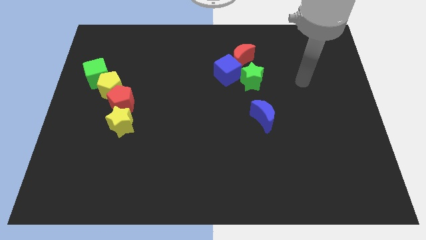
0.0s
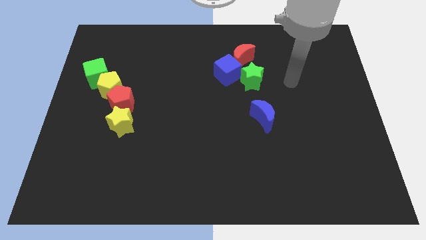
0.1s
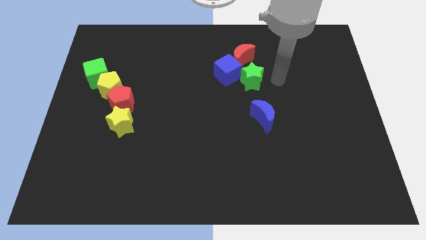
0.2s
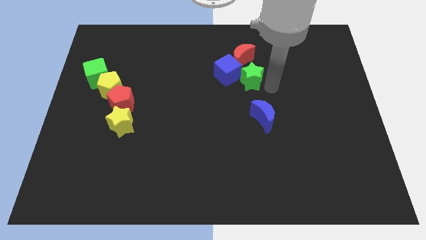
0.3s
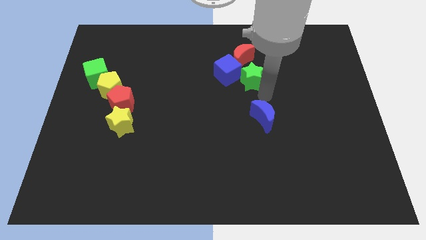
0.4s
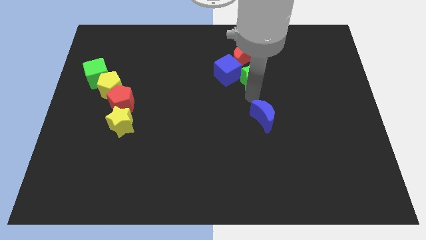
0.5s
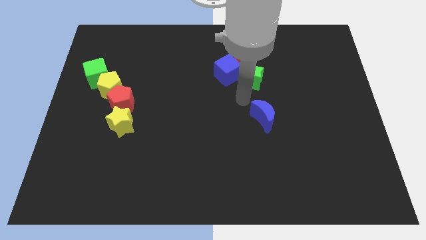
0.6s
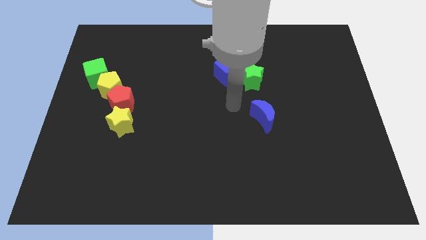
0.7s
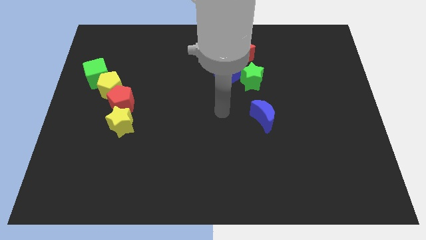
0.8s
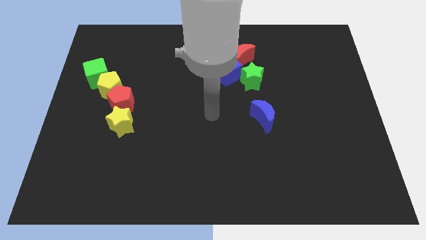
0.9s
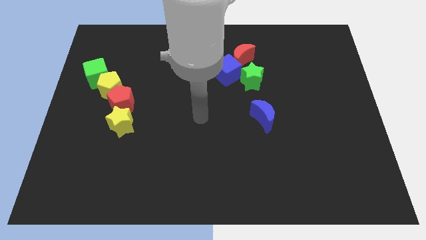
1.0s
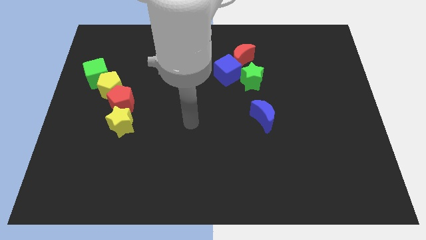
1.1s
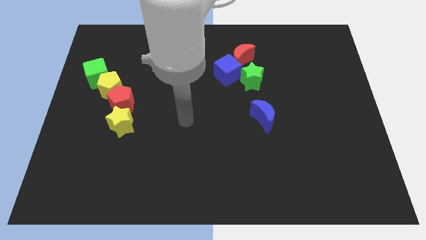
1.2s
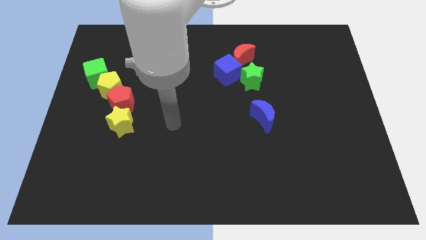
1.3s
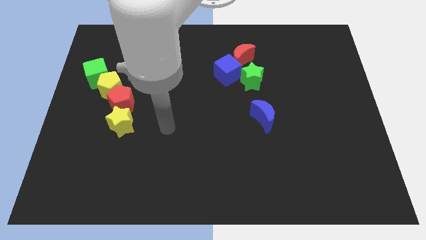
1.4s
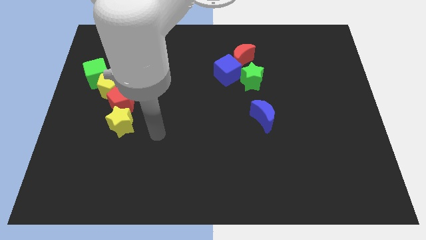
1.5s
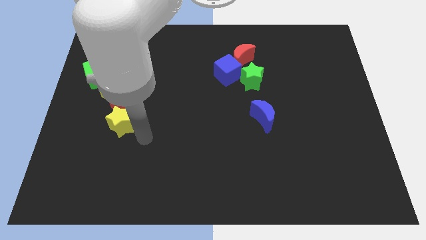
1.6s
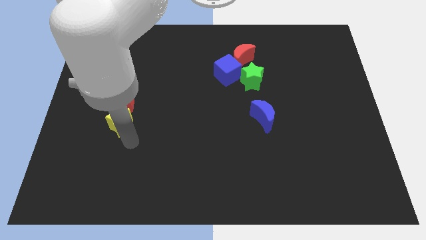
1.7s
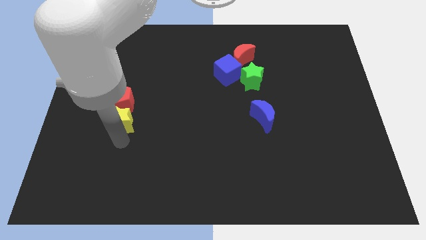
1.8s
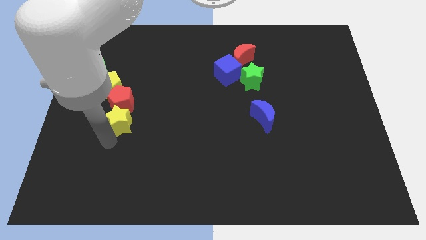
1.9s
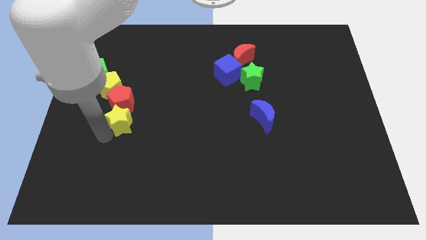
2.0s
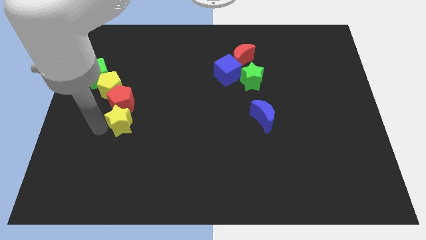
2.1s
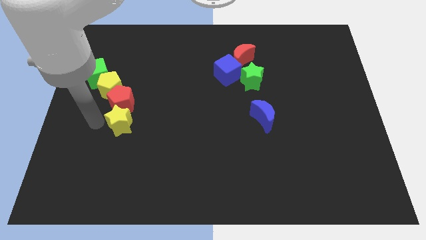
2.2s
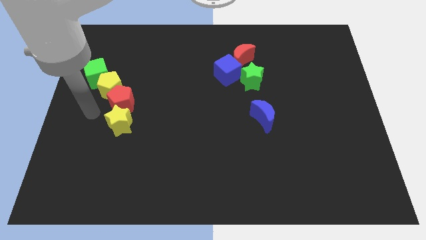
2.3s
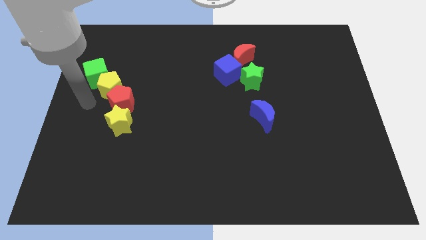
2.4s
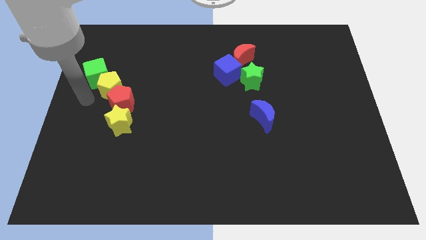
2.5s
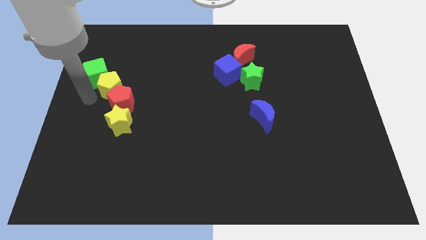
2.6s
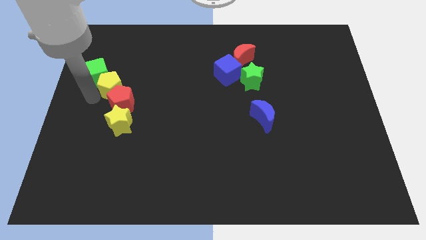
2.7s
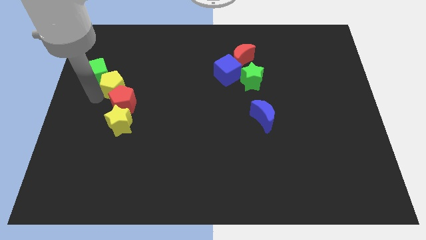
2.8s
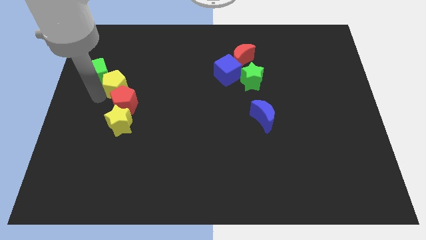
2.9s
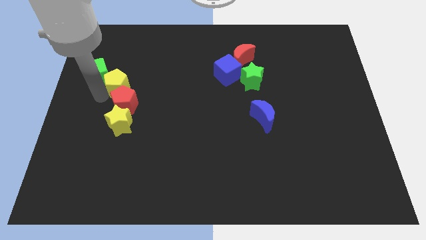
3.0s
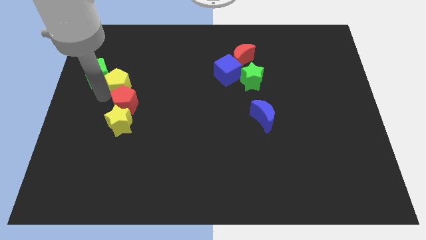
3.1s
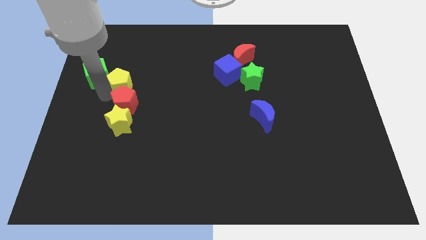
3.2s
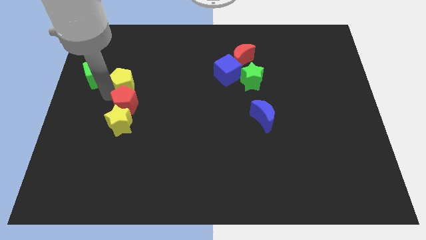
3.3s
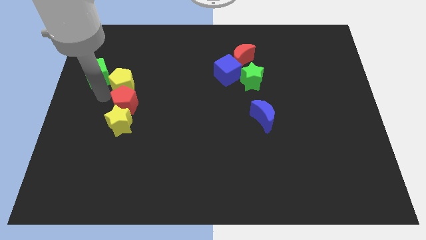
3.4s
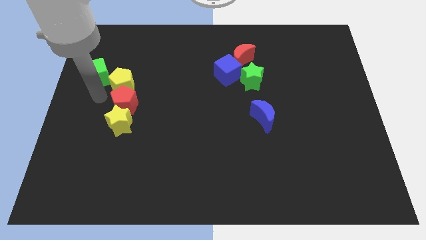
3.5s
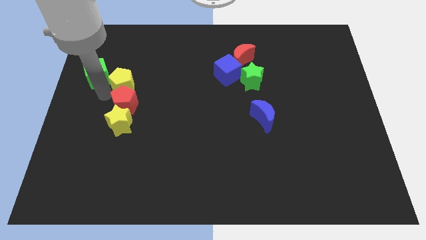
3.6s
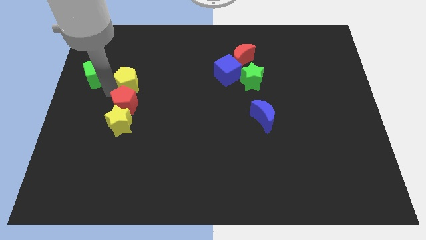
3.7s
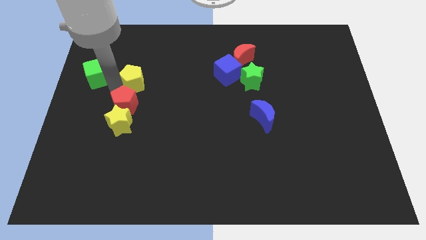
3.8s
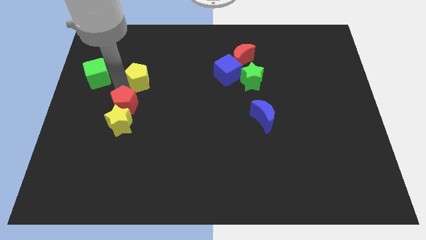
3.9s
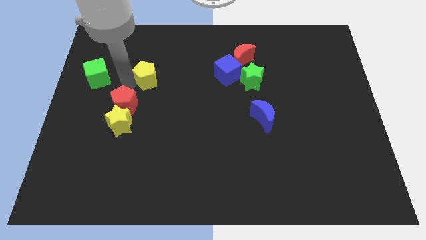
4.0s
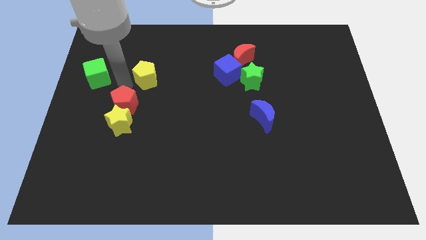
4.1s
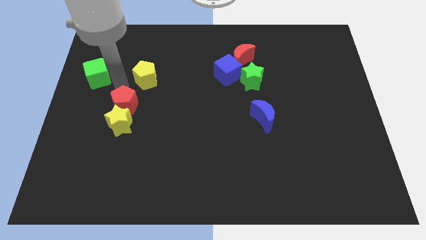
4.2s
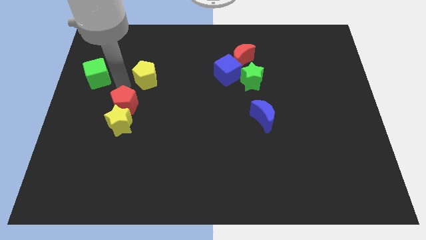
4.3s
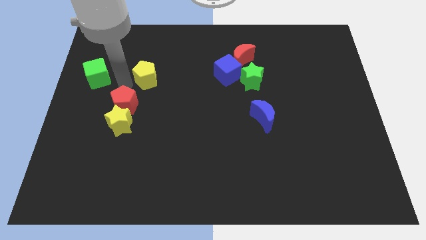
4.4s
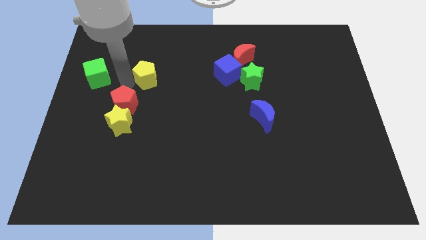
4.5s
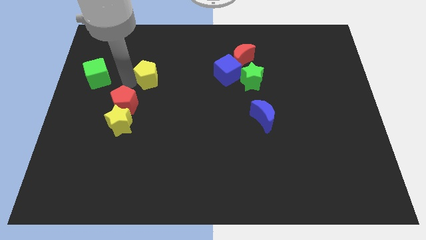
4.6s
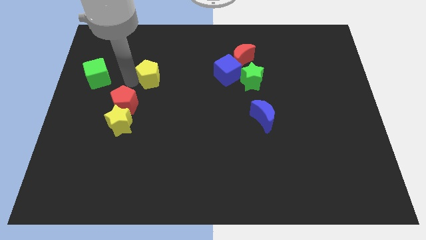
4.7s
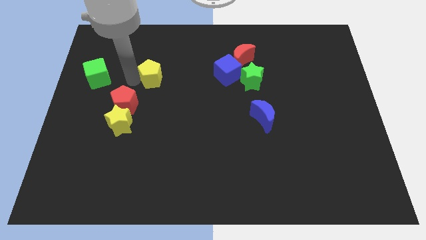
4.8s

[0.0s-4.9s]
pull the yellow pentagon apart from the red pentagon and green cube

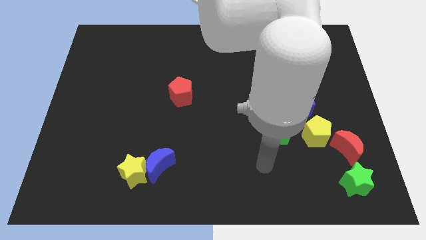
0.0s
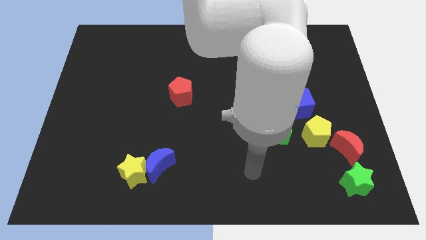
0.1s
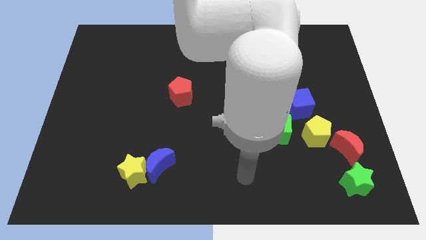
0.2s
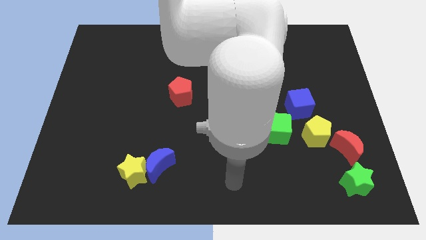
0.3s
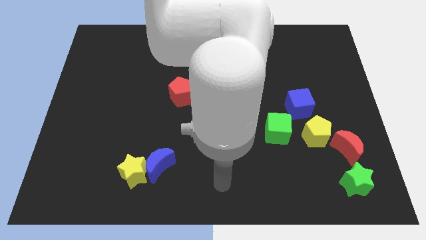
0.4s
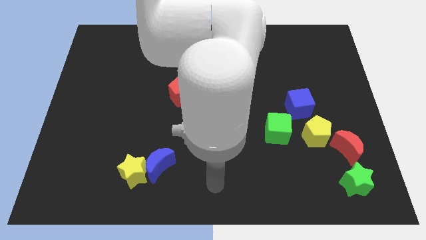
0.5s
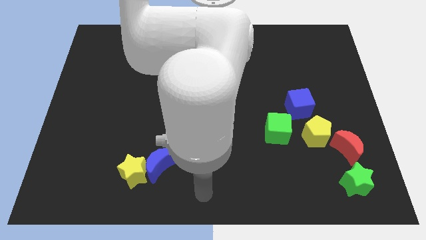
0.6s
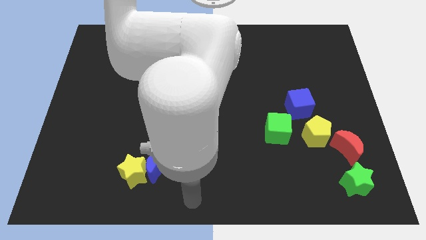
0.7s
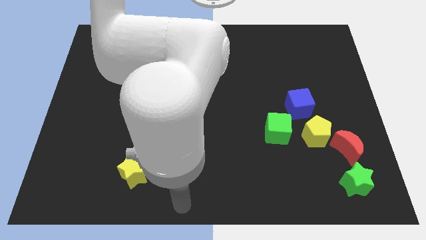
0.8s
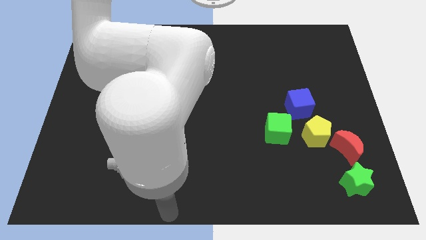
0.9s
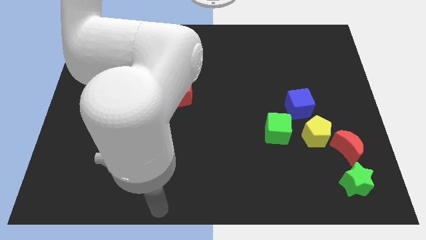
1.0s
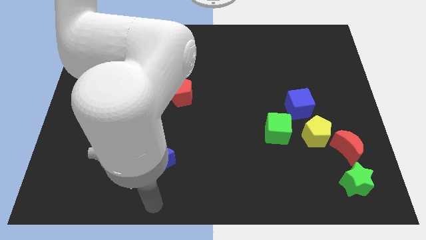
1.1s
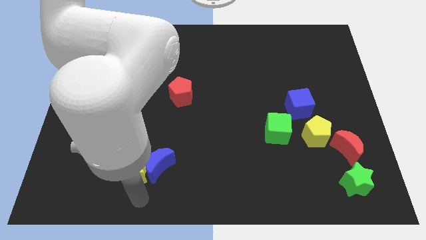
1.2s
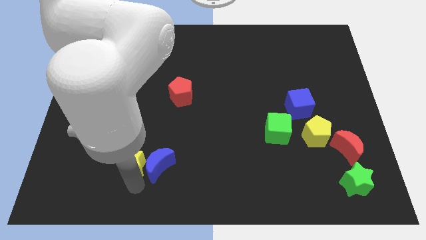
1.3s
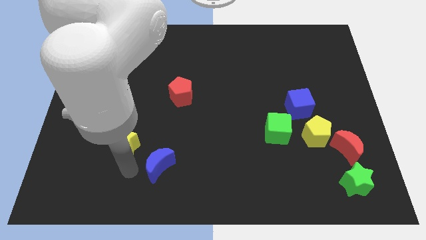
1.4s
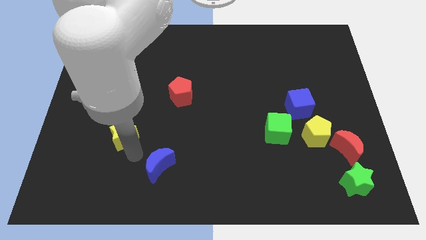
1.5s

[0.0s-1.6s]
separate the blue moon from the yellow star

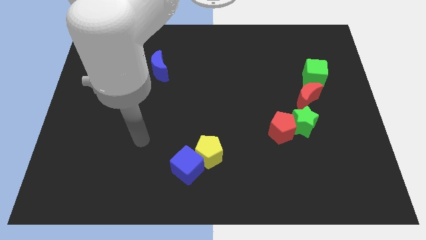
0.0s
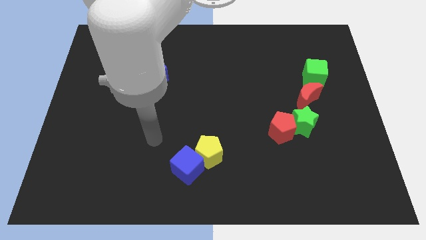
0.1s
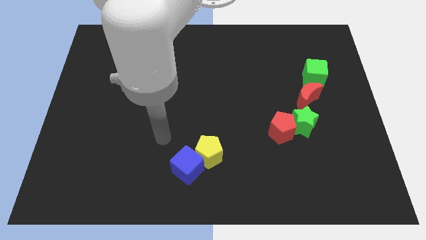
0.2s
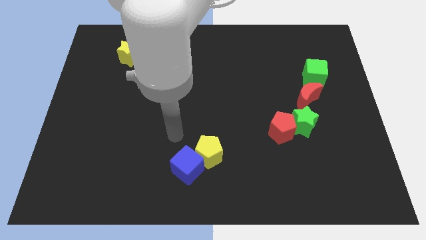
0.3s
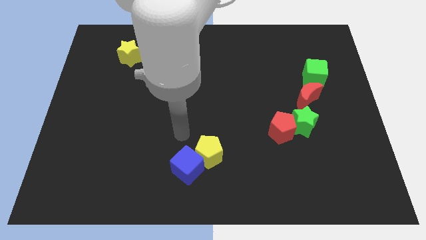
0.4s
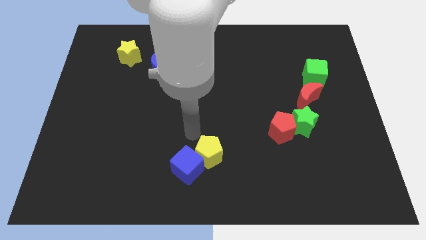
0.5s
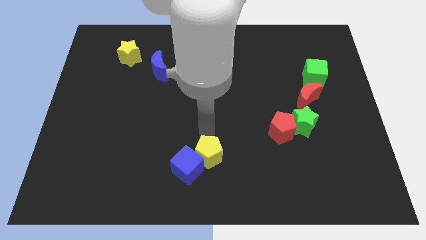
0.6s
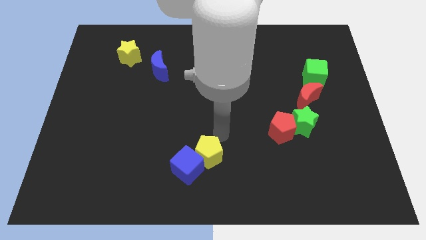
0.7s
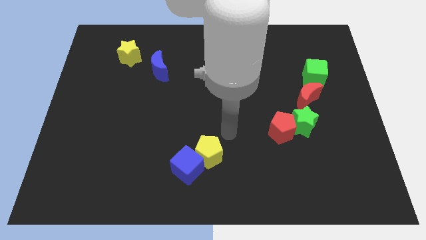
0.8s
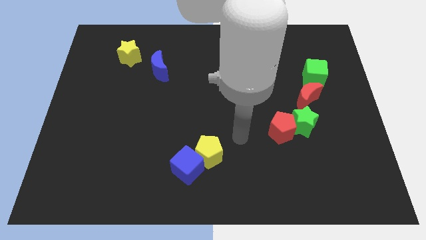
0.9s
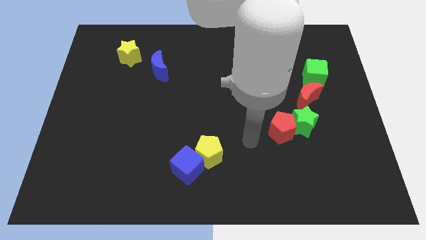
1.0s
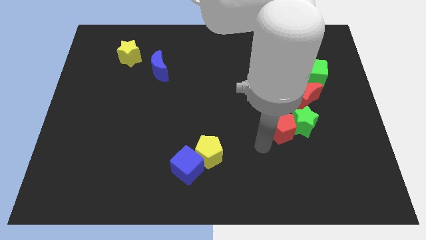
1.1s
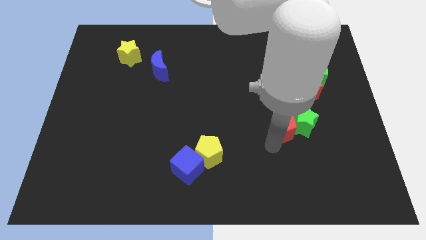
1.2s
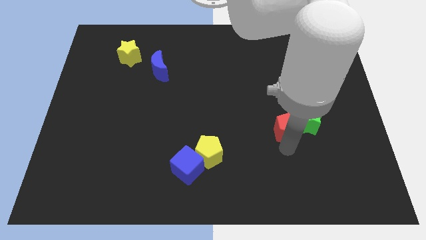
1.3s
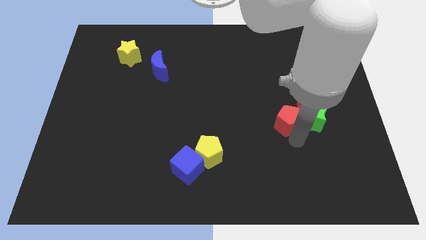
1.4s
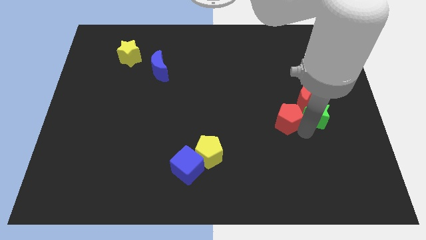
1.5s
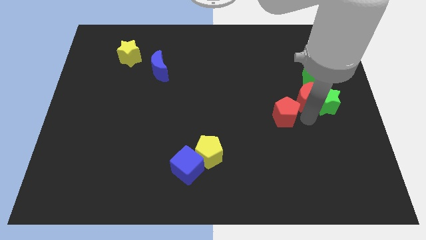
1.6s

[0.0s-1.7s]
pull the red pentagon apart from the green star

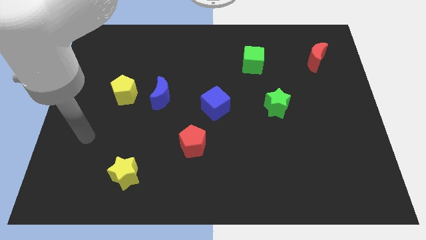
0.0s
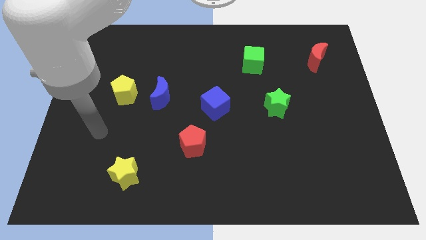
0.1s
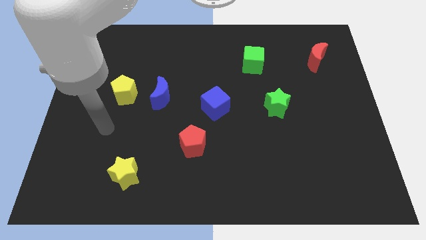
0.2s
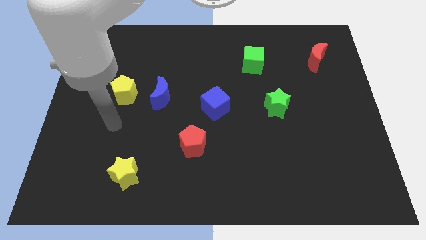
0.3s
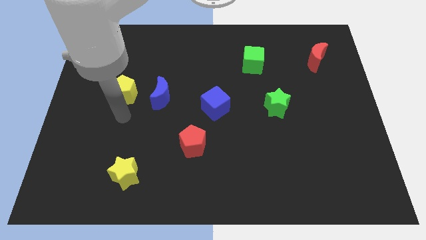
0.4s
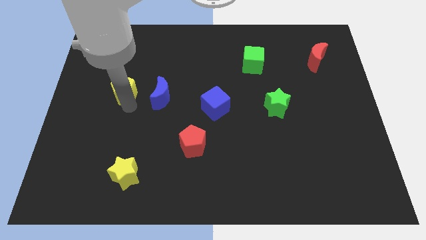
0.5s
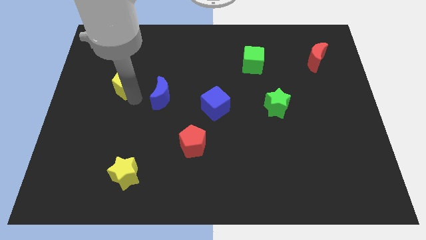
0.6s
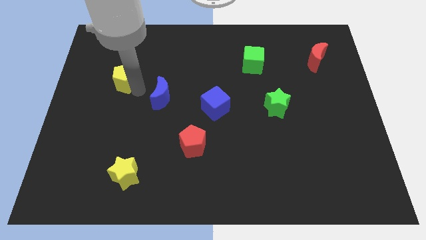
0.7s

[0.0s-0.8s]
pull the blue moon apart from the yellow pentagon

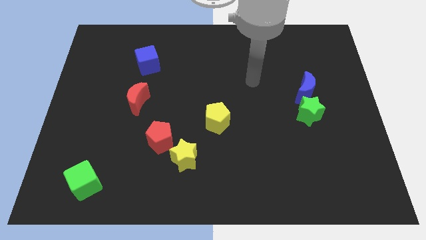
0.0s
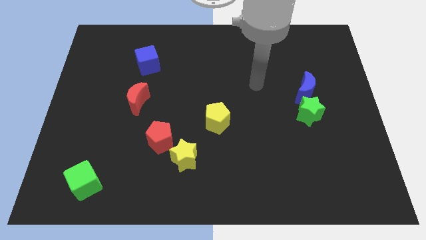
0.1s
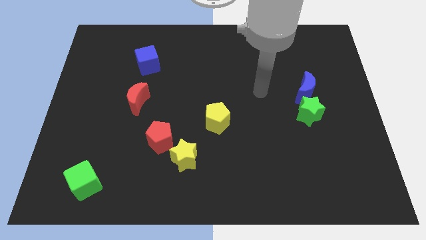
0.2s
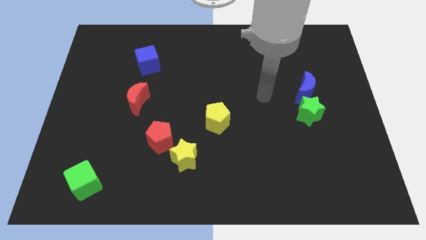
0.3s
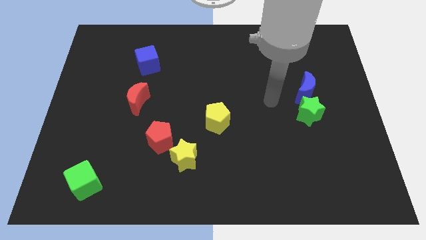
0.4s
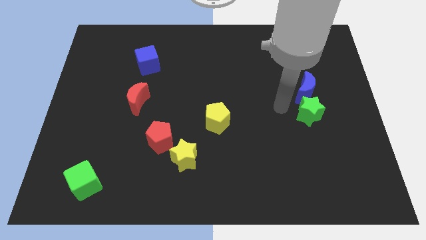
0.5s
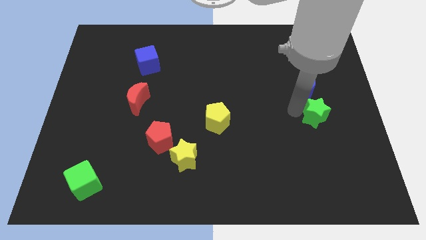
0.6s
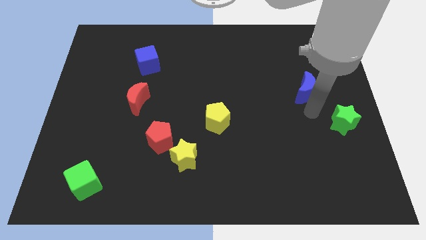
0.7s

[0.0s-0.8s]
pull the blue moon apart from the green star
